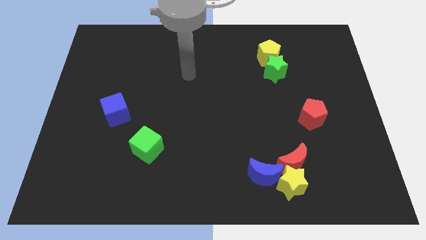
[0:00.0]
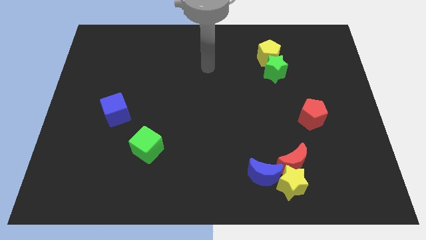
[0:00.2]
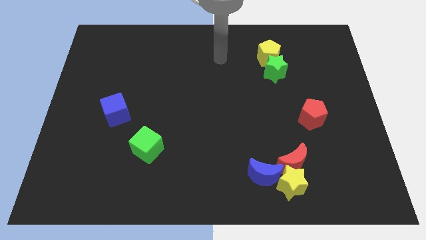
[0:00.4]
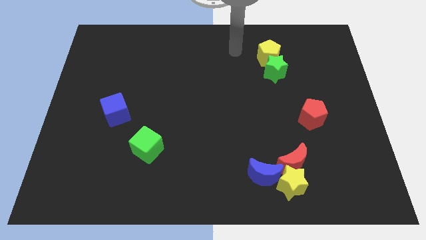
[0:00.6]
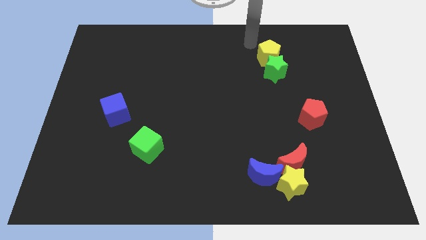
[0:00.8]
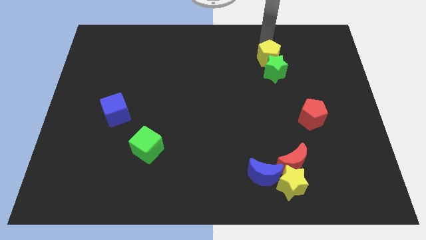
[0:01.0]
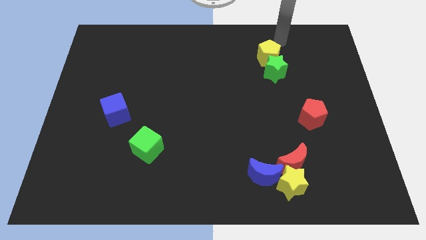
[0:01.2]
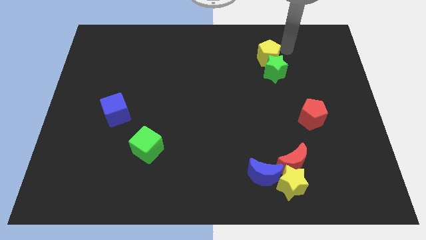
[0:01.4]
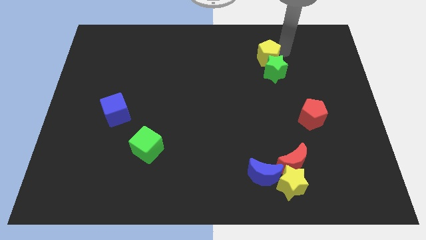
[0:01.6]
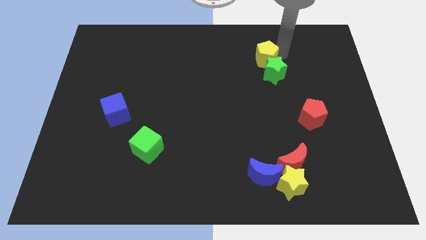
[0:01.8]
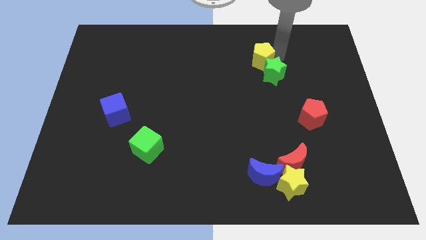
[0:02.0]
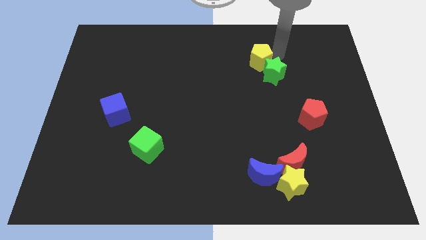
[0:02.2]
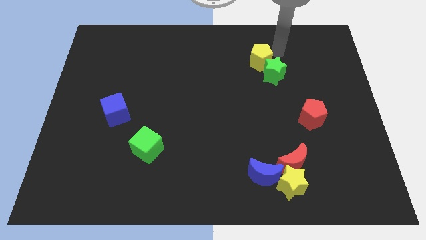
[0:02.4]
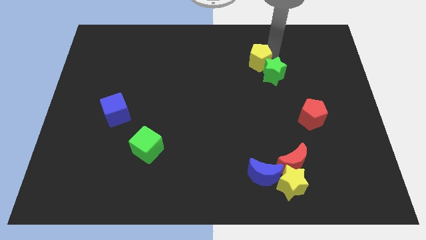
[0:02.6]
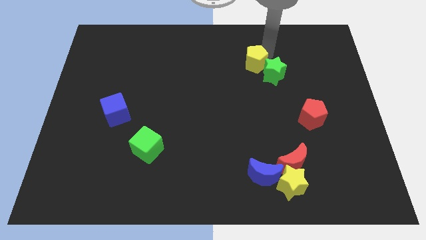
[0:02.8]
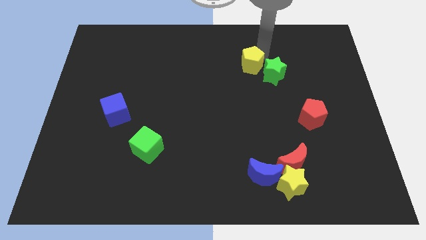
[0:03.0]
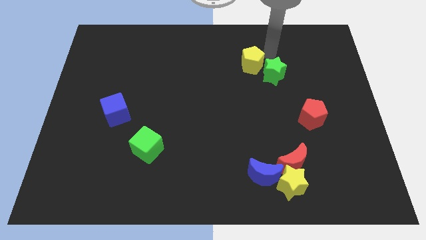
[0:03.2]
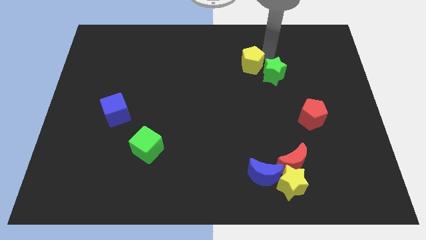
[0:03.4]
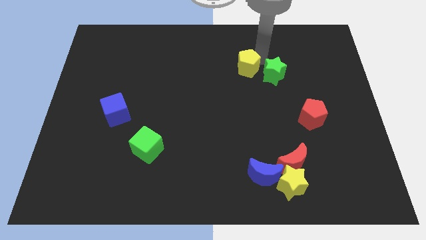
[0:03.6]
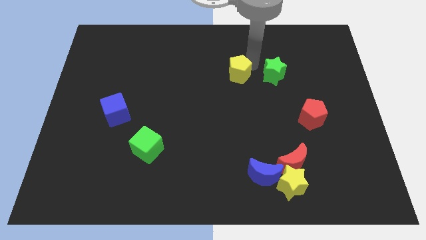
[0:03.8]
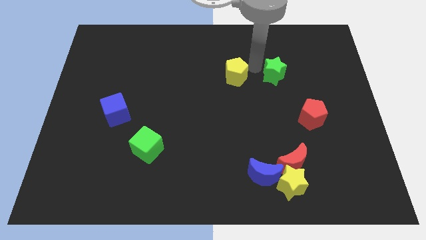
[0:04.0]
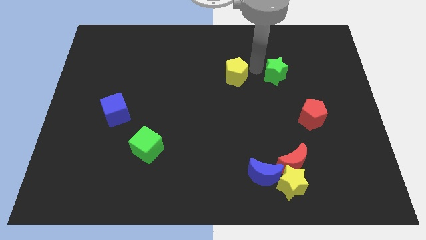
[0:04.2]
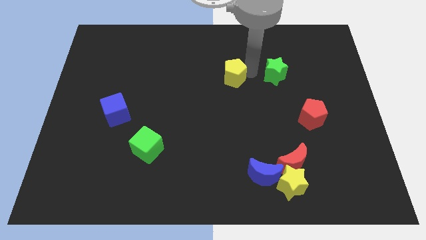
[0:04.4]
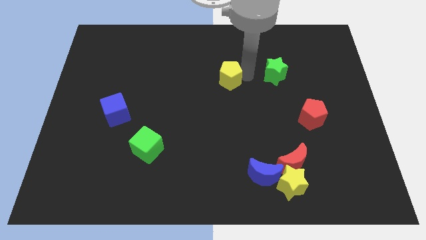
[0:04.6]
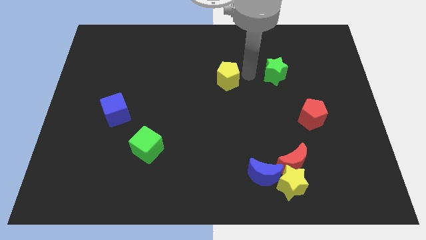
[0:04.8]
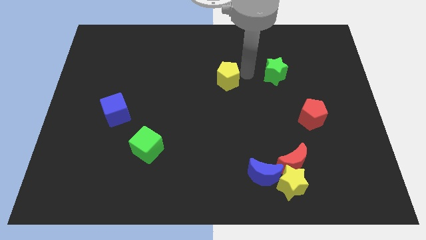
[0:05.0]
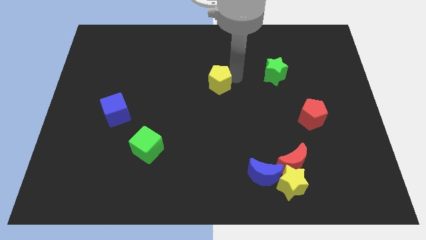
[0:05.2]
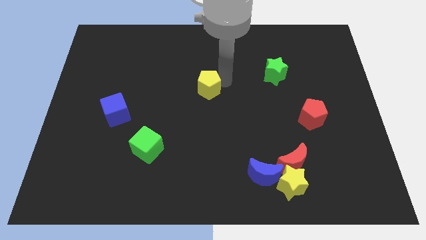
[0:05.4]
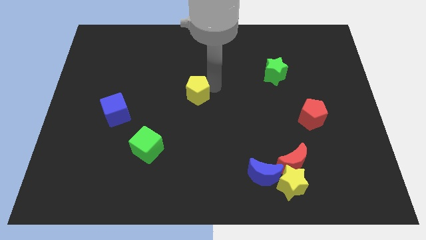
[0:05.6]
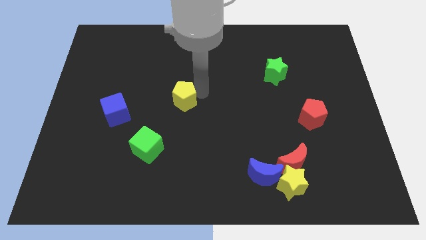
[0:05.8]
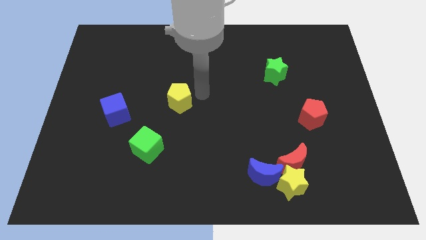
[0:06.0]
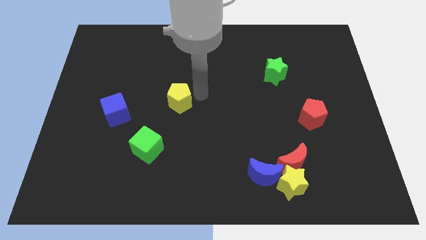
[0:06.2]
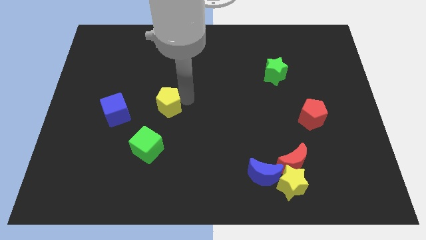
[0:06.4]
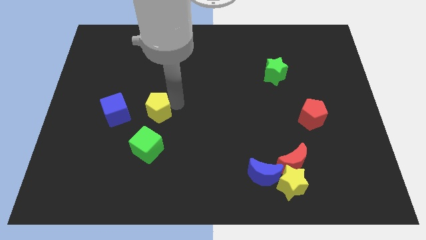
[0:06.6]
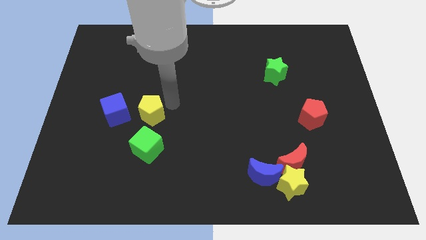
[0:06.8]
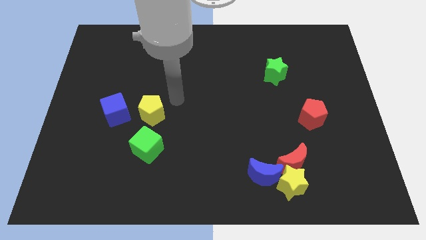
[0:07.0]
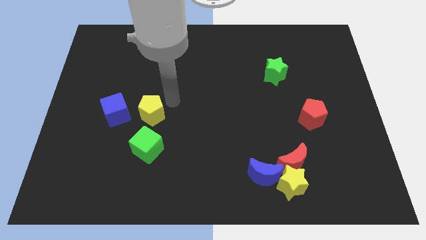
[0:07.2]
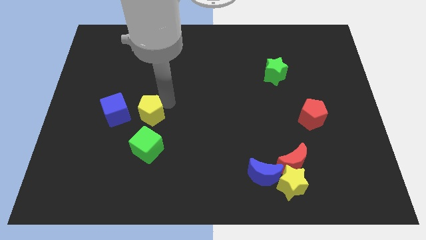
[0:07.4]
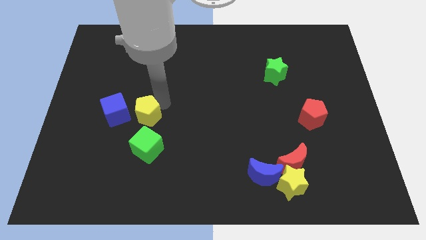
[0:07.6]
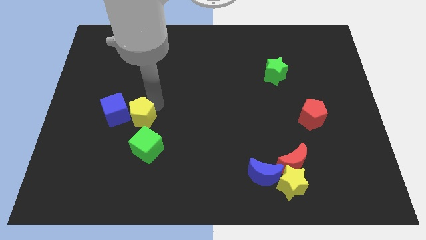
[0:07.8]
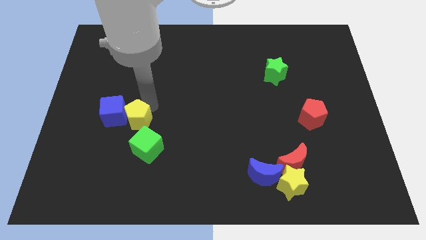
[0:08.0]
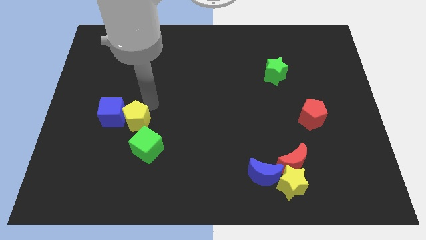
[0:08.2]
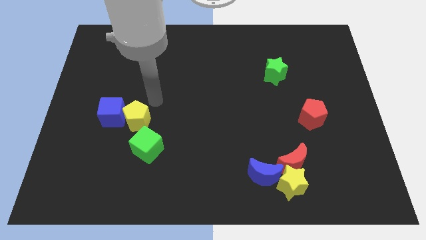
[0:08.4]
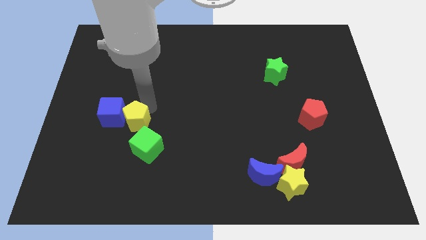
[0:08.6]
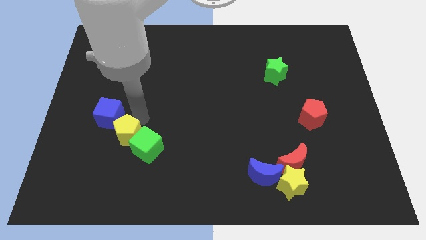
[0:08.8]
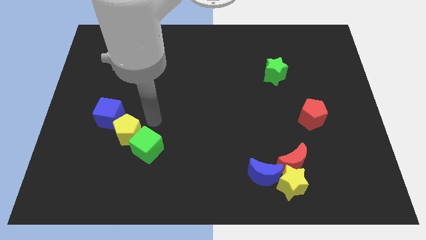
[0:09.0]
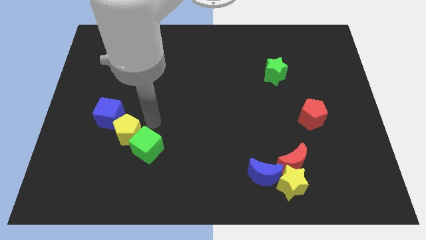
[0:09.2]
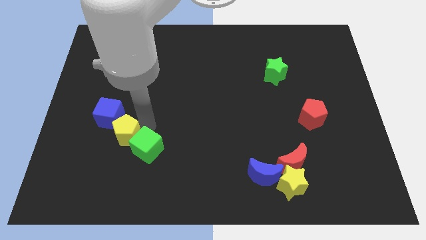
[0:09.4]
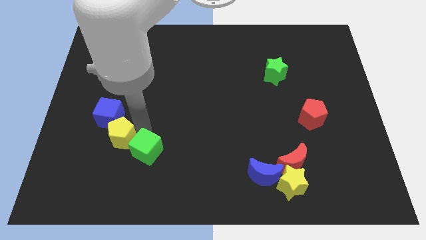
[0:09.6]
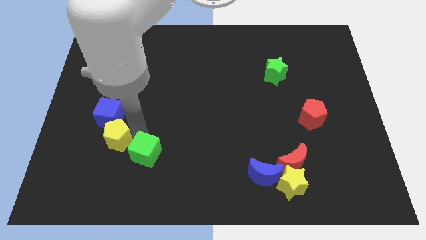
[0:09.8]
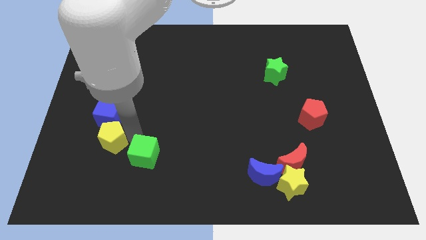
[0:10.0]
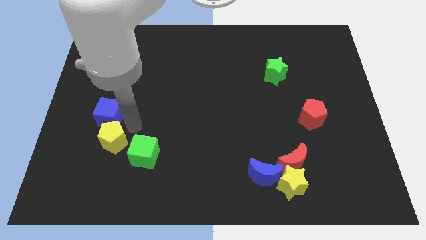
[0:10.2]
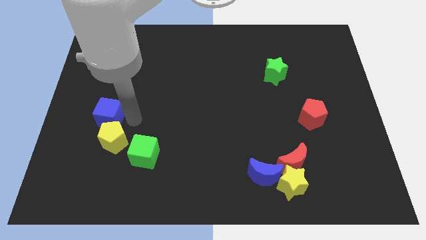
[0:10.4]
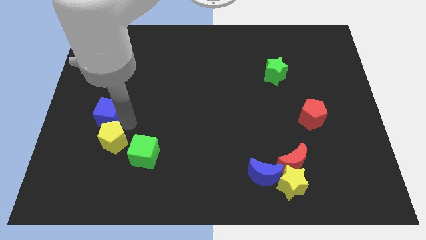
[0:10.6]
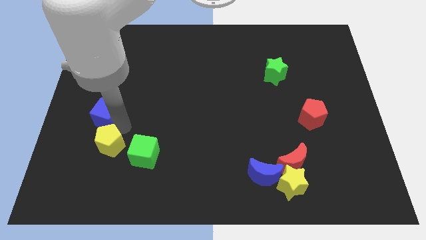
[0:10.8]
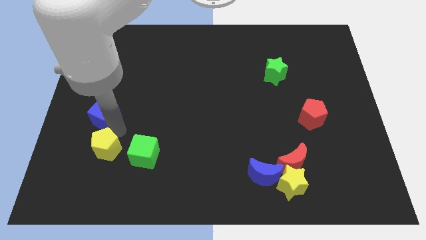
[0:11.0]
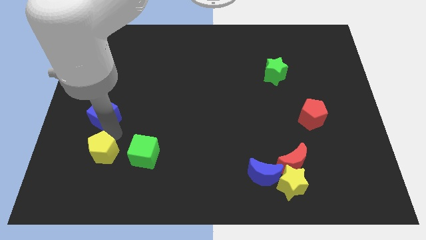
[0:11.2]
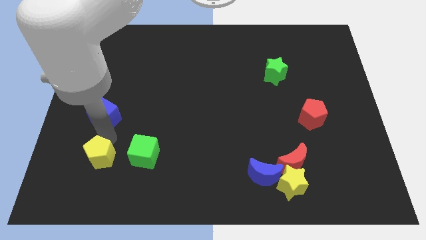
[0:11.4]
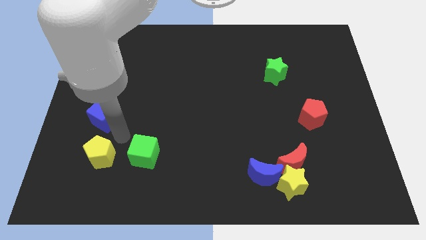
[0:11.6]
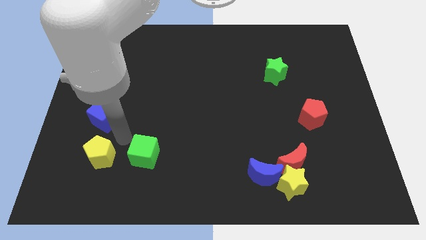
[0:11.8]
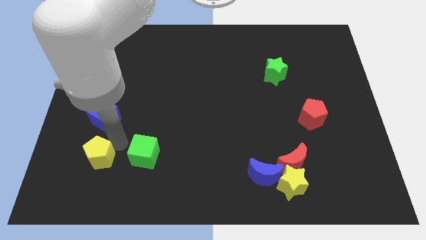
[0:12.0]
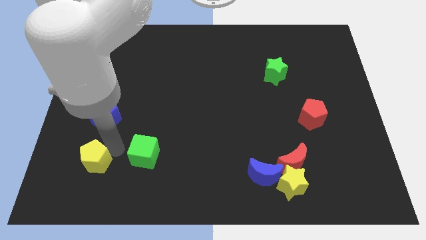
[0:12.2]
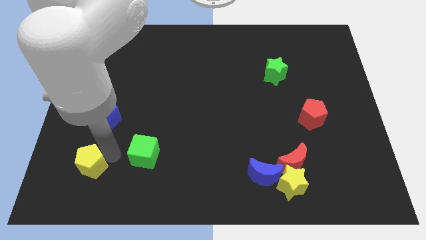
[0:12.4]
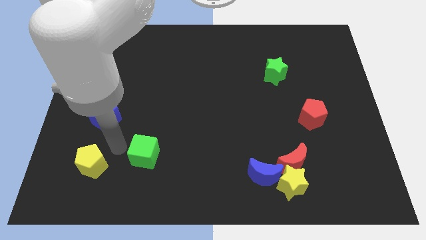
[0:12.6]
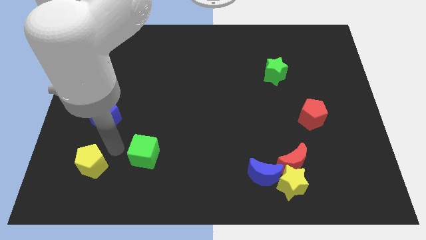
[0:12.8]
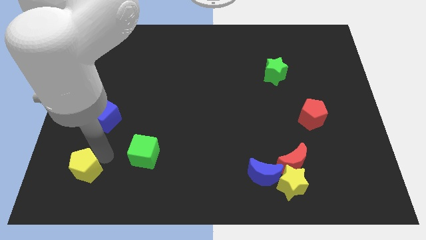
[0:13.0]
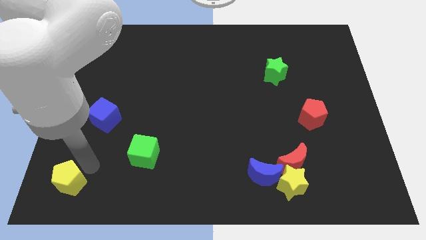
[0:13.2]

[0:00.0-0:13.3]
move the yellow pentagon to the bottom left

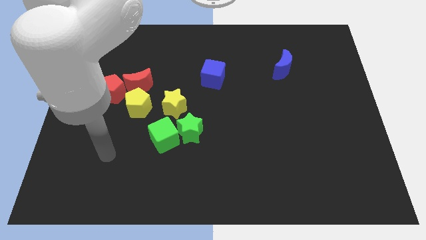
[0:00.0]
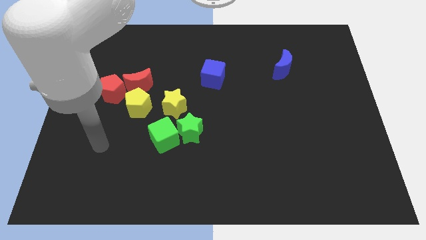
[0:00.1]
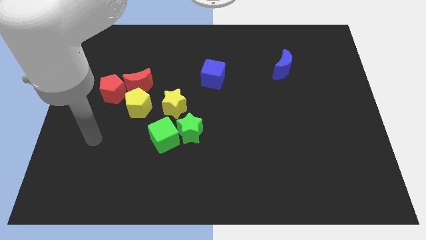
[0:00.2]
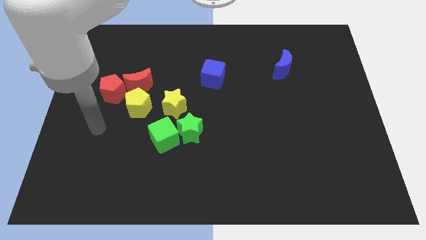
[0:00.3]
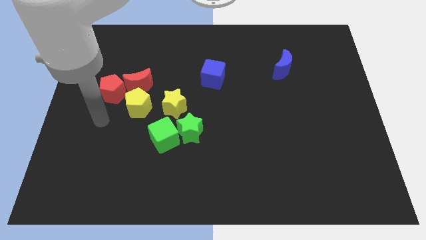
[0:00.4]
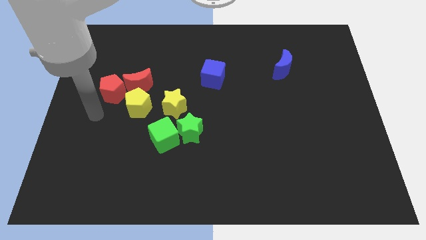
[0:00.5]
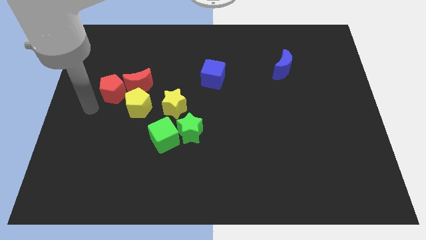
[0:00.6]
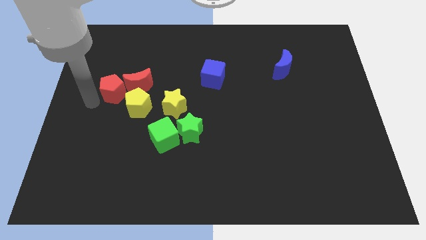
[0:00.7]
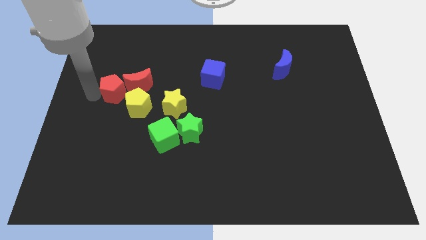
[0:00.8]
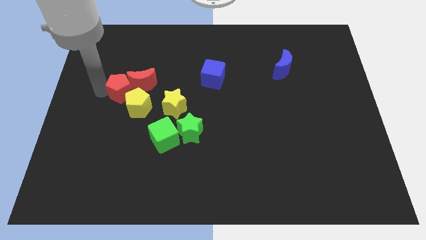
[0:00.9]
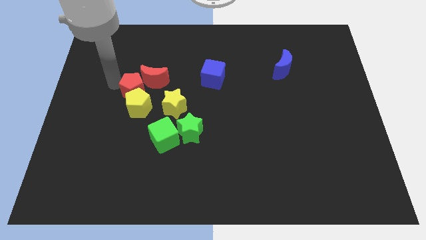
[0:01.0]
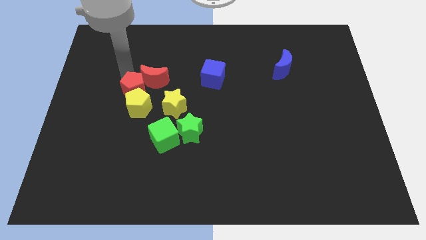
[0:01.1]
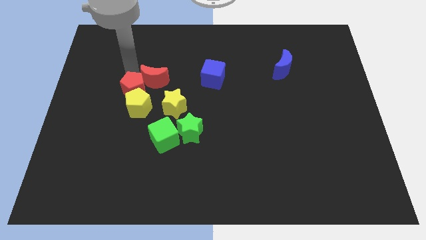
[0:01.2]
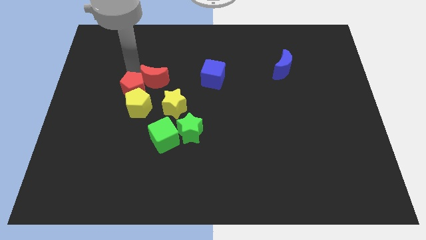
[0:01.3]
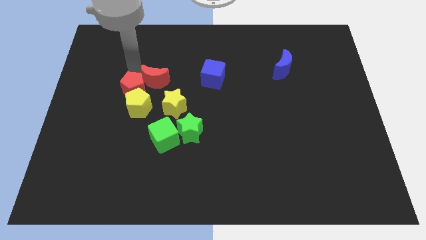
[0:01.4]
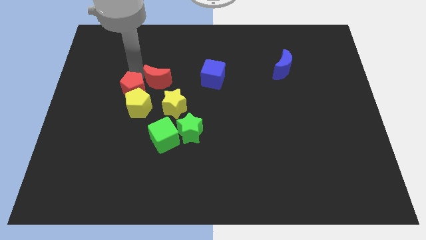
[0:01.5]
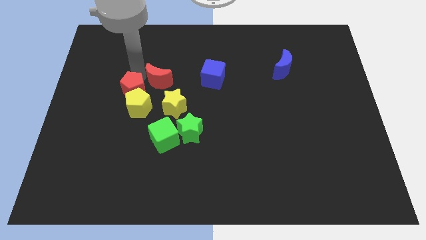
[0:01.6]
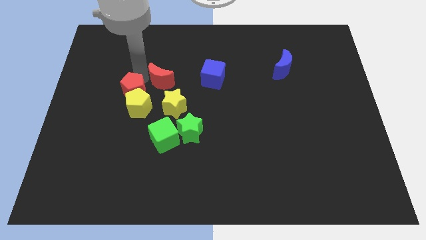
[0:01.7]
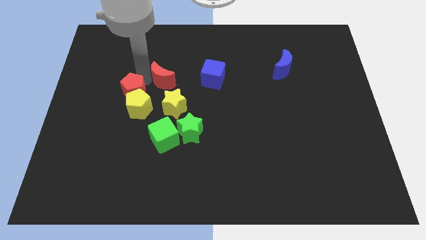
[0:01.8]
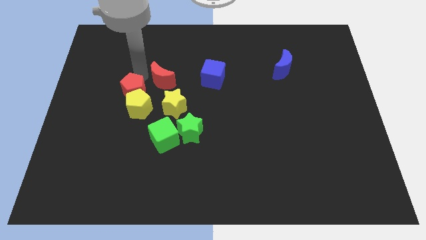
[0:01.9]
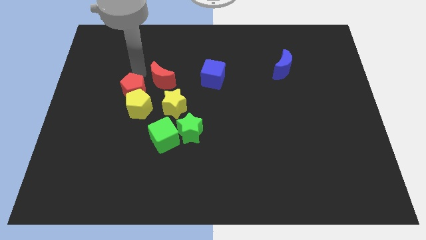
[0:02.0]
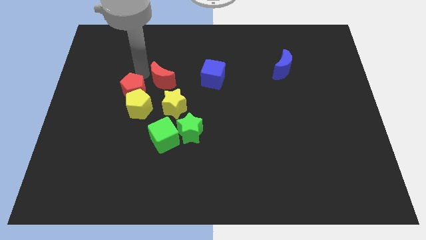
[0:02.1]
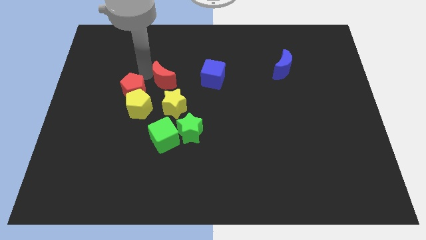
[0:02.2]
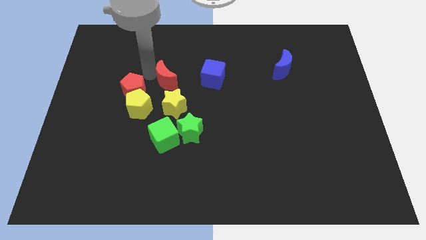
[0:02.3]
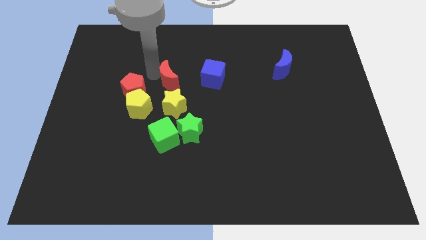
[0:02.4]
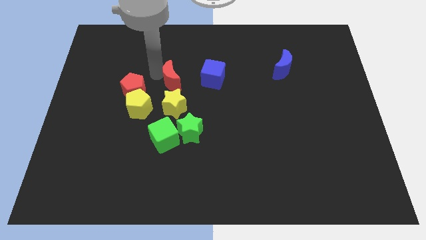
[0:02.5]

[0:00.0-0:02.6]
slide the red moon to the center
